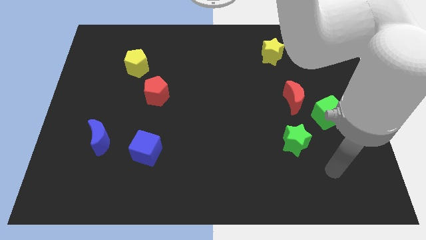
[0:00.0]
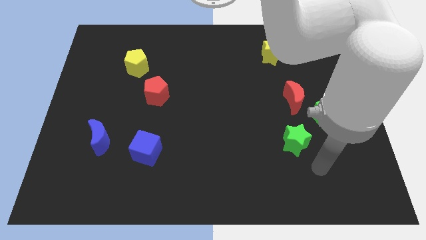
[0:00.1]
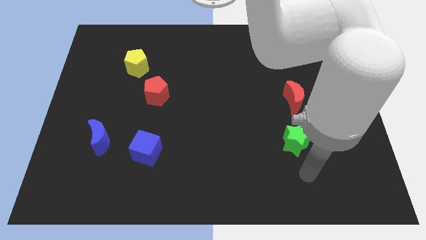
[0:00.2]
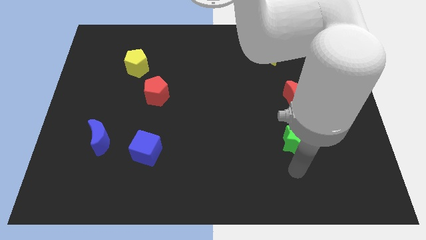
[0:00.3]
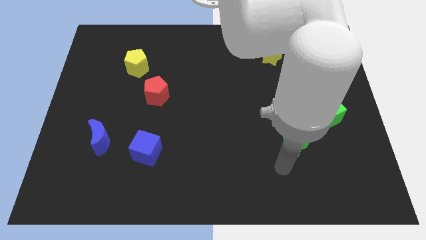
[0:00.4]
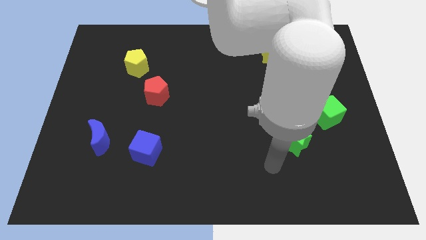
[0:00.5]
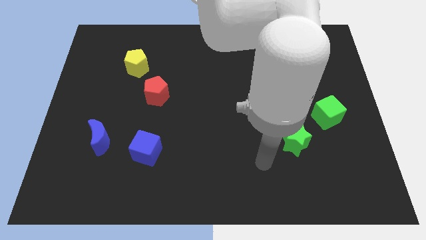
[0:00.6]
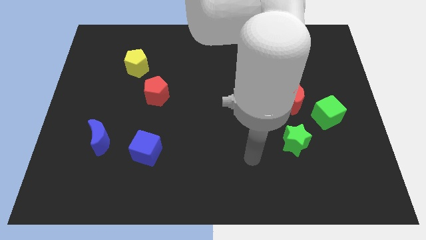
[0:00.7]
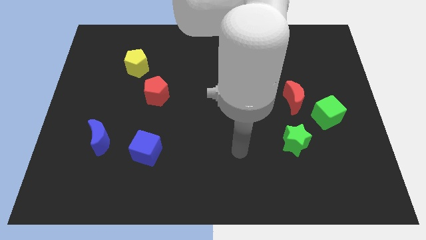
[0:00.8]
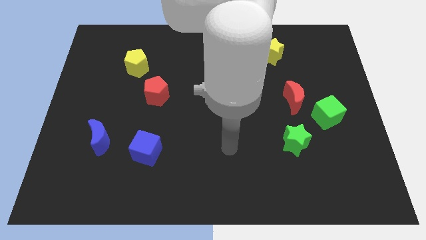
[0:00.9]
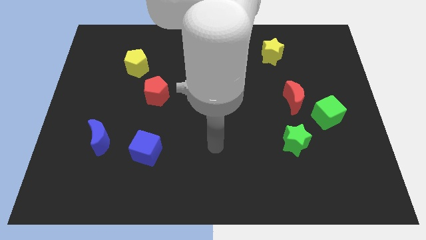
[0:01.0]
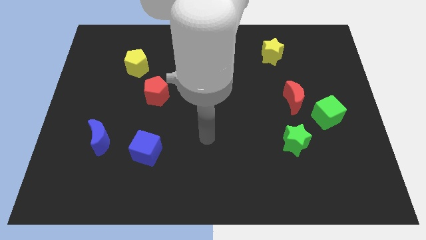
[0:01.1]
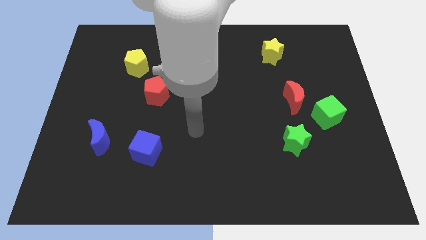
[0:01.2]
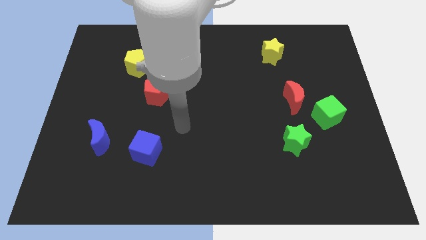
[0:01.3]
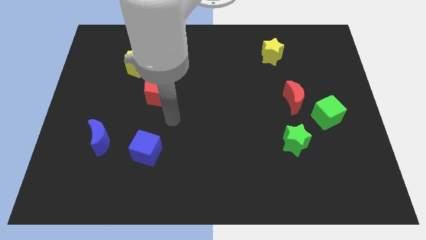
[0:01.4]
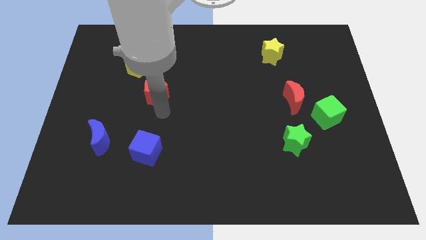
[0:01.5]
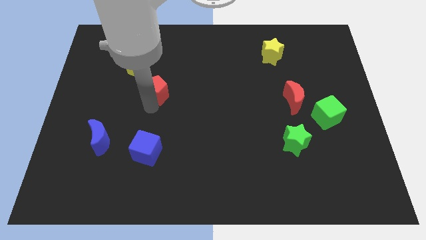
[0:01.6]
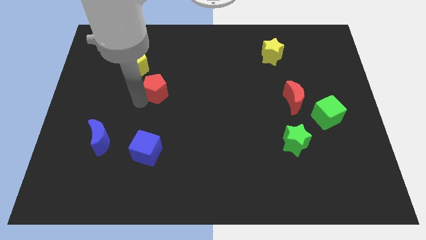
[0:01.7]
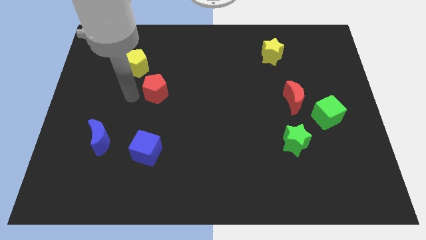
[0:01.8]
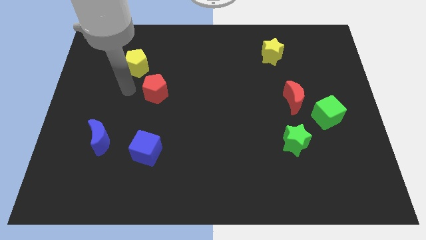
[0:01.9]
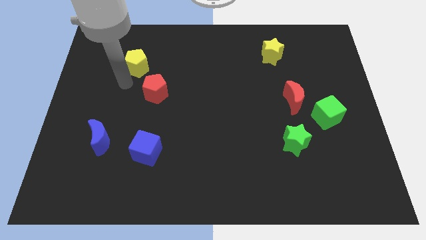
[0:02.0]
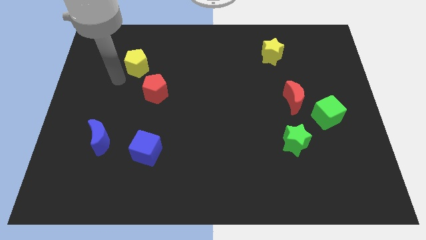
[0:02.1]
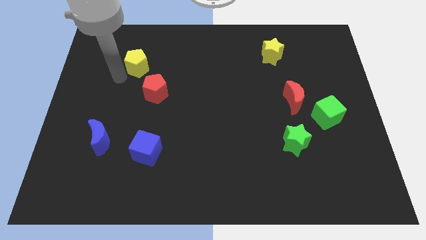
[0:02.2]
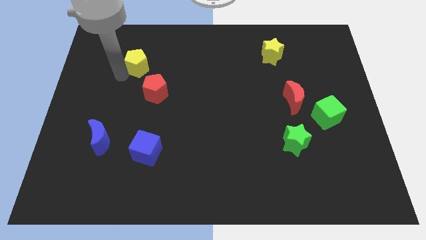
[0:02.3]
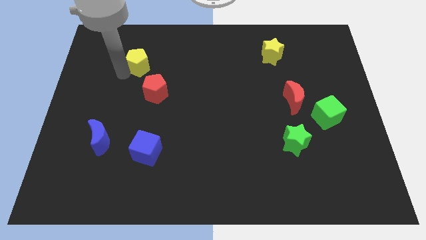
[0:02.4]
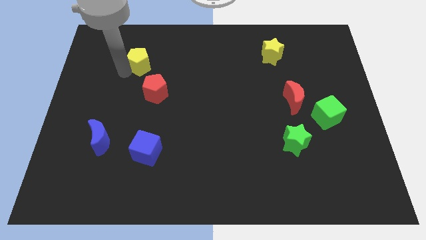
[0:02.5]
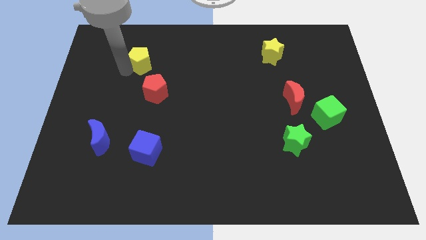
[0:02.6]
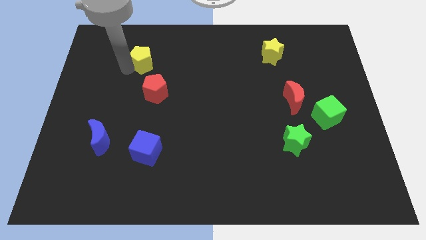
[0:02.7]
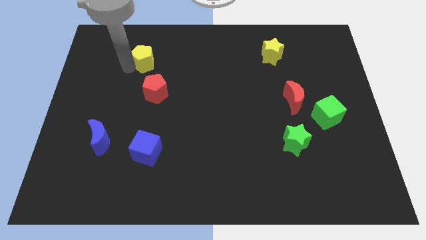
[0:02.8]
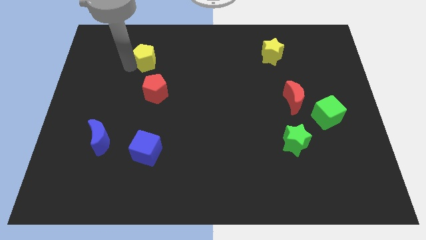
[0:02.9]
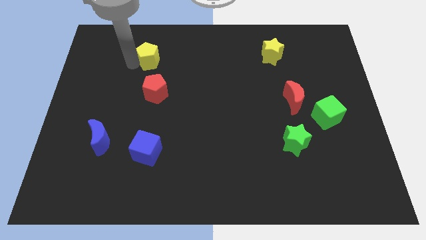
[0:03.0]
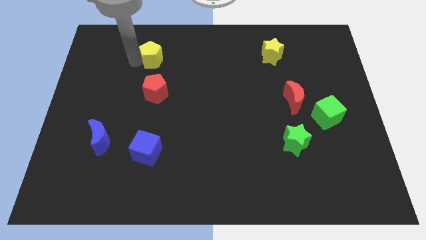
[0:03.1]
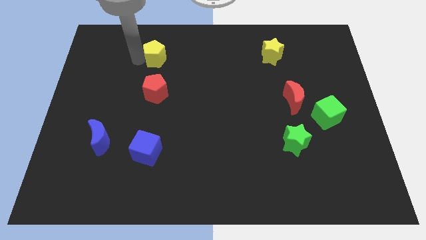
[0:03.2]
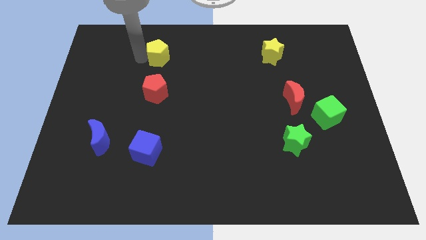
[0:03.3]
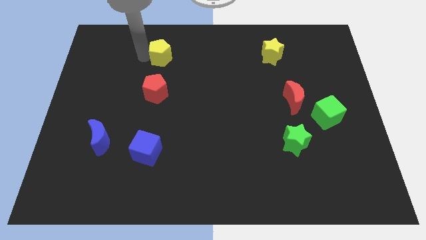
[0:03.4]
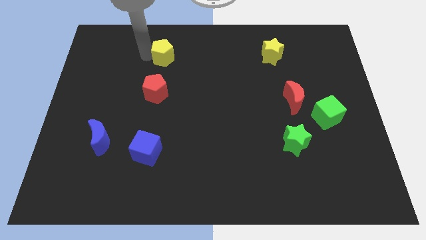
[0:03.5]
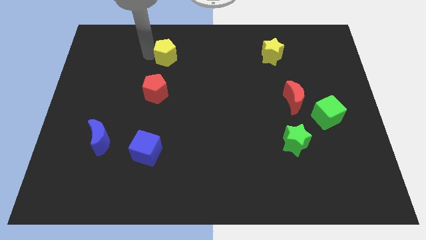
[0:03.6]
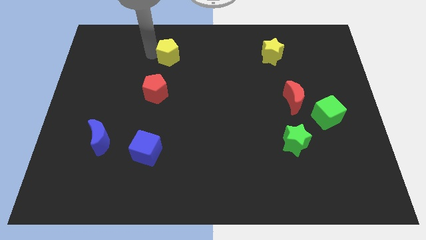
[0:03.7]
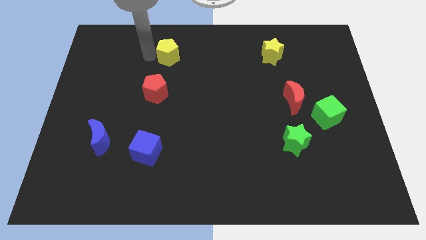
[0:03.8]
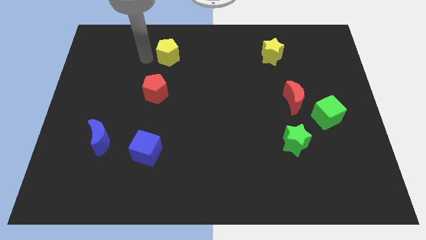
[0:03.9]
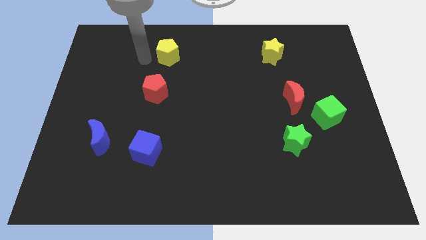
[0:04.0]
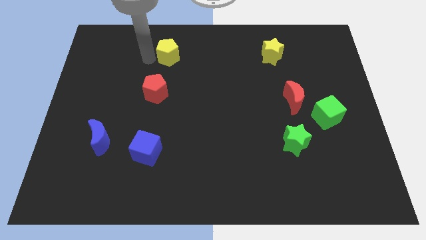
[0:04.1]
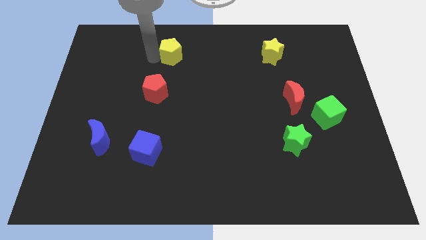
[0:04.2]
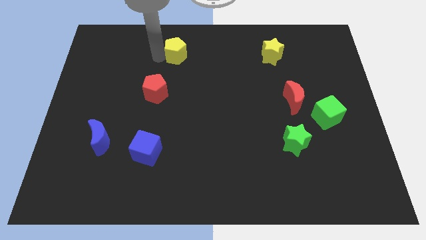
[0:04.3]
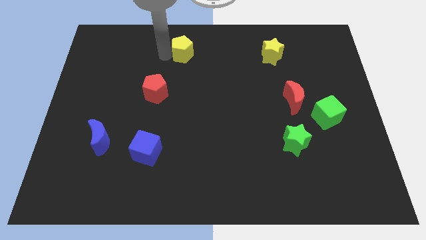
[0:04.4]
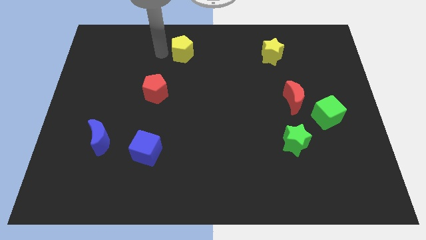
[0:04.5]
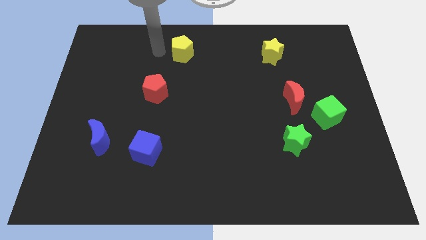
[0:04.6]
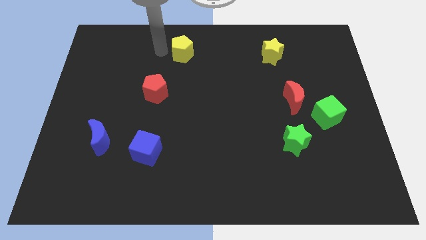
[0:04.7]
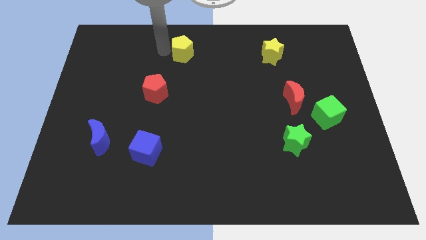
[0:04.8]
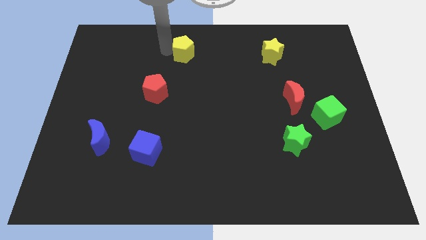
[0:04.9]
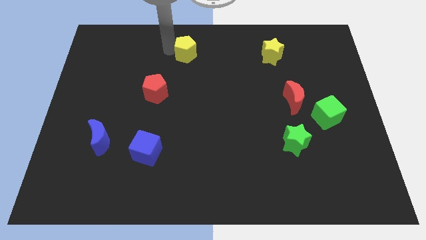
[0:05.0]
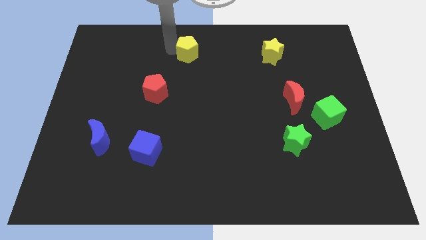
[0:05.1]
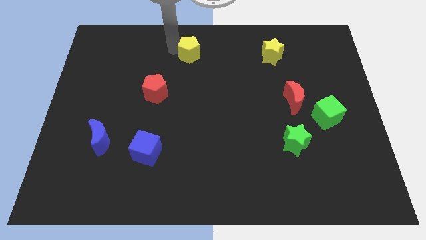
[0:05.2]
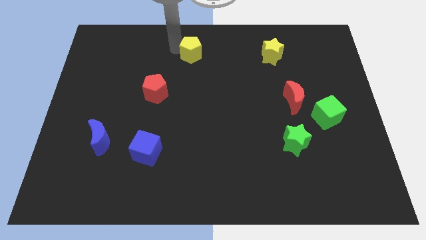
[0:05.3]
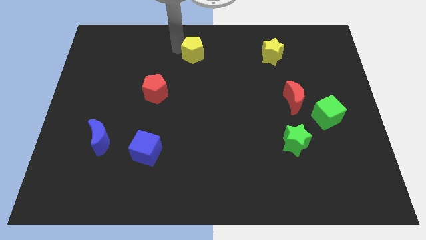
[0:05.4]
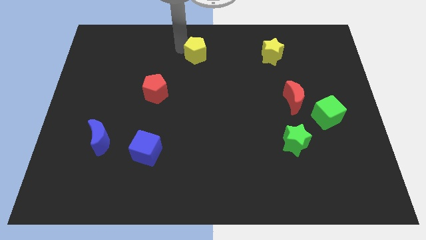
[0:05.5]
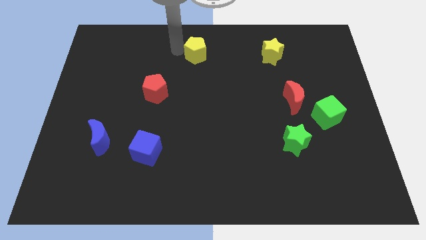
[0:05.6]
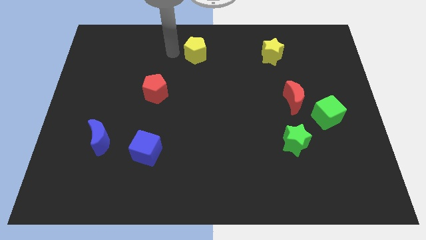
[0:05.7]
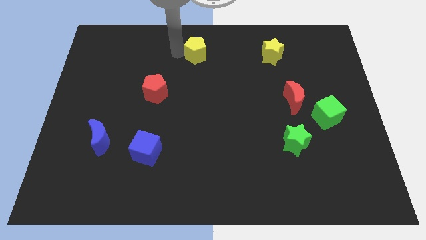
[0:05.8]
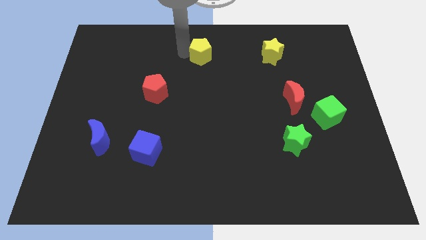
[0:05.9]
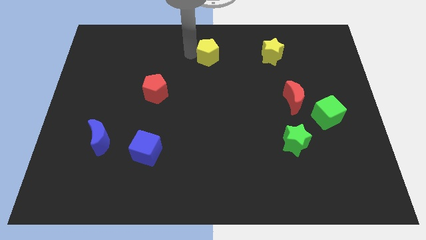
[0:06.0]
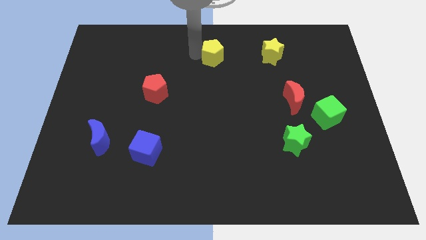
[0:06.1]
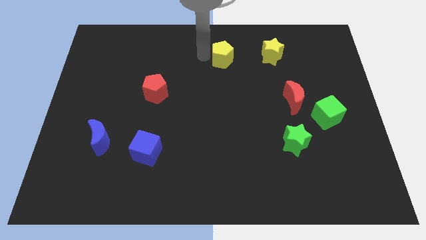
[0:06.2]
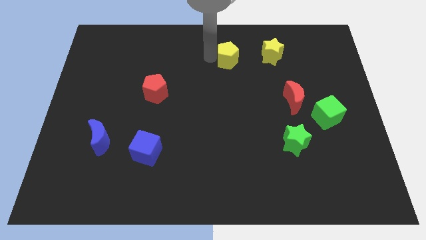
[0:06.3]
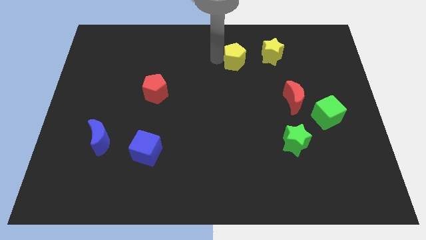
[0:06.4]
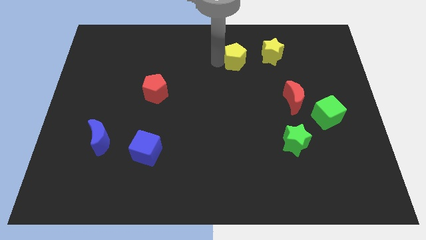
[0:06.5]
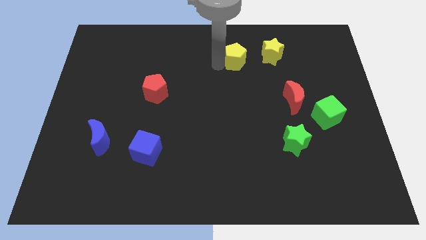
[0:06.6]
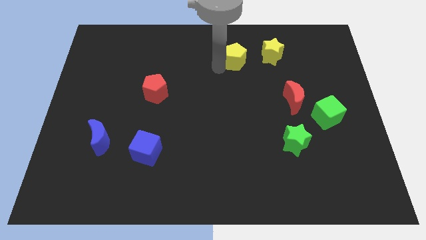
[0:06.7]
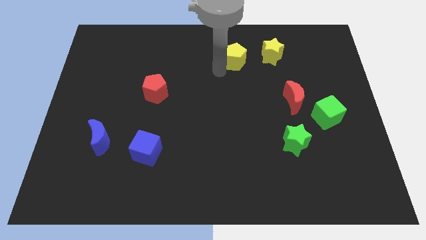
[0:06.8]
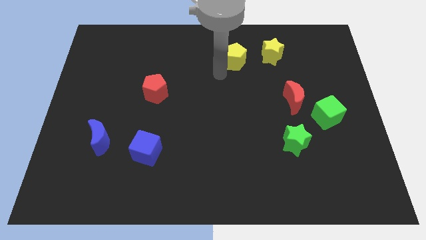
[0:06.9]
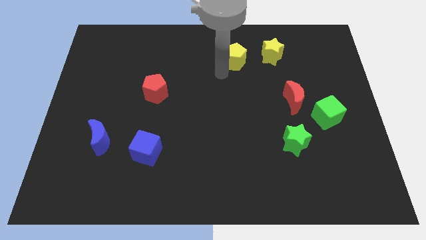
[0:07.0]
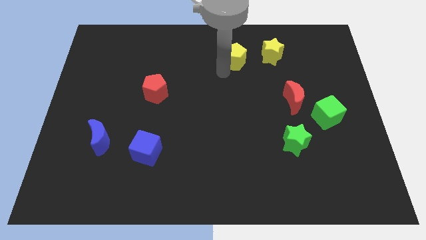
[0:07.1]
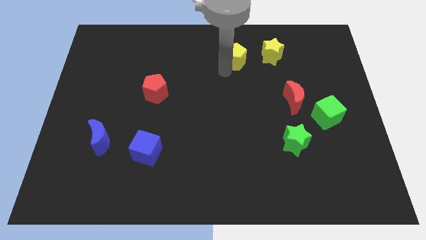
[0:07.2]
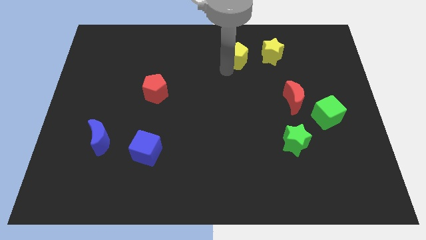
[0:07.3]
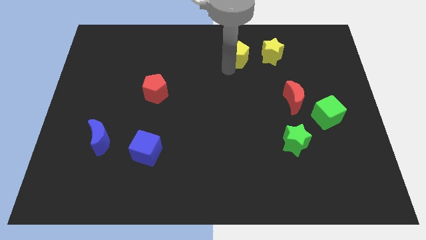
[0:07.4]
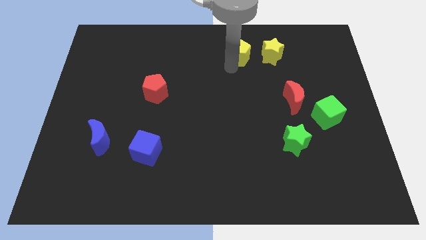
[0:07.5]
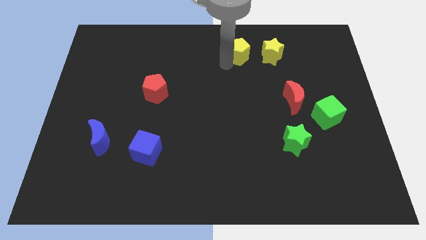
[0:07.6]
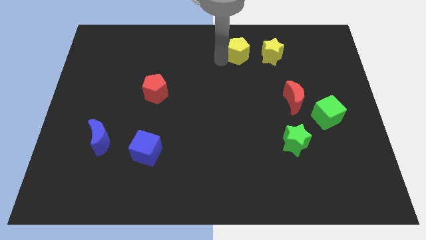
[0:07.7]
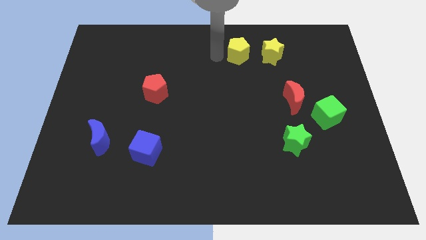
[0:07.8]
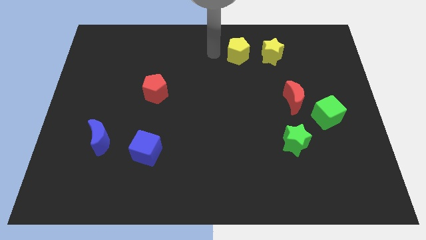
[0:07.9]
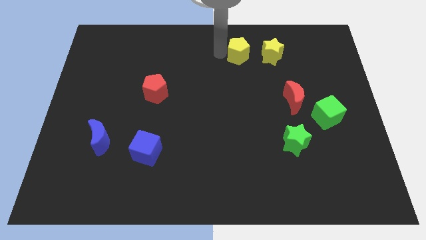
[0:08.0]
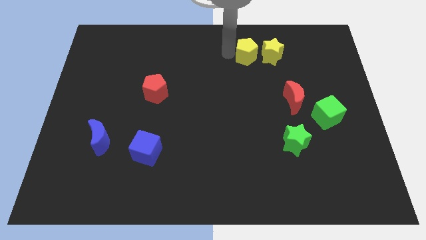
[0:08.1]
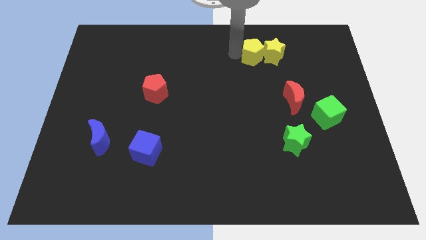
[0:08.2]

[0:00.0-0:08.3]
slide the yellow pentagon next to the yellow star
